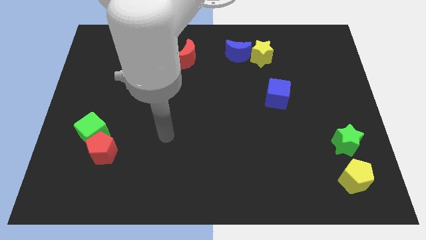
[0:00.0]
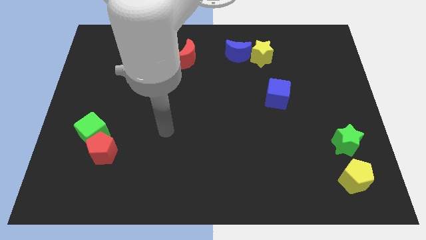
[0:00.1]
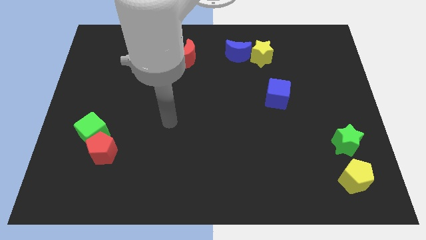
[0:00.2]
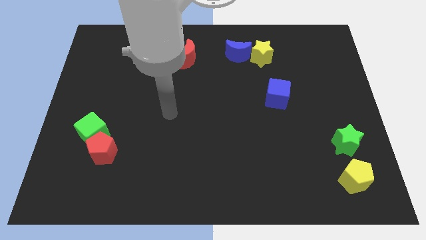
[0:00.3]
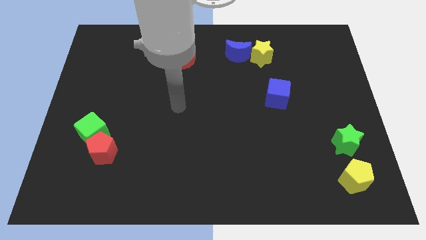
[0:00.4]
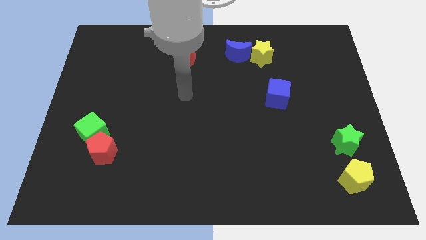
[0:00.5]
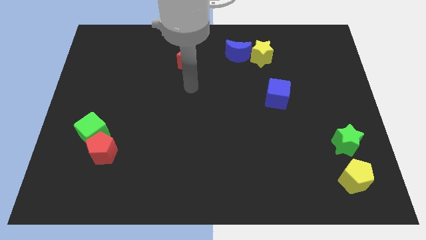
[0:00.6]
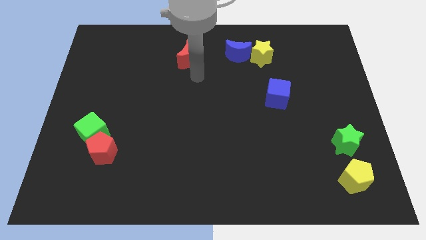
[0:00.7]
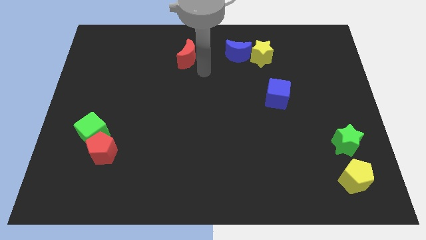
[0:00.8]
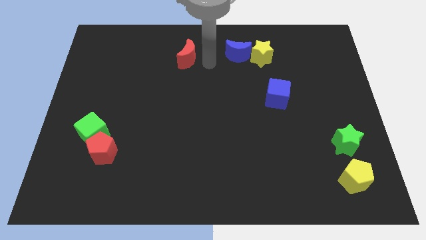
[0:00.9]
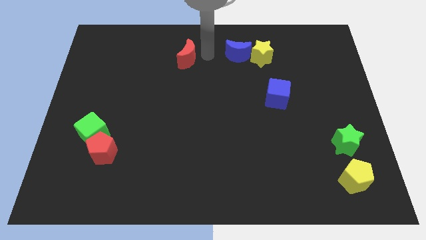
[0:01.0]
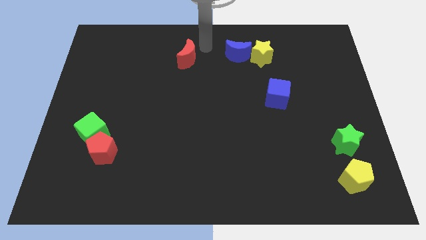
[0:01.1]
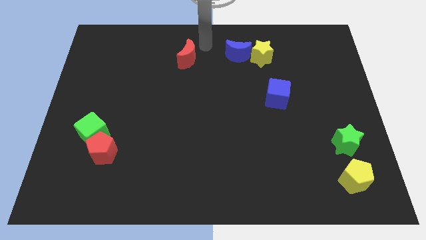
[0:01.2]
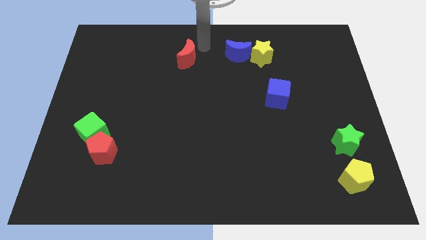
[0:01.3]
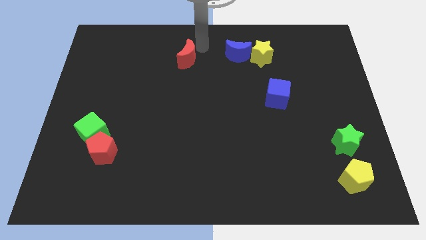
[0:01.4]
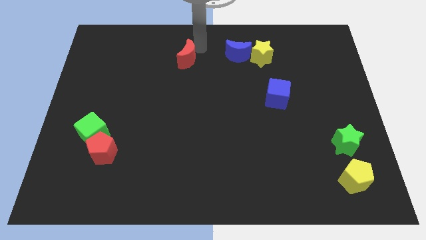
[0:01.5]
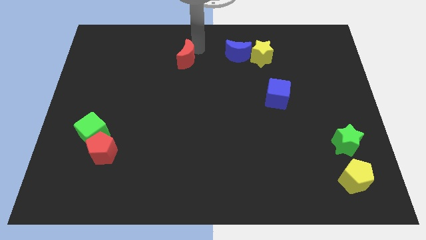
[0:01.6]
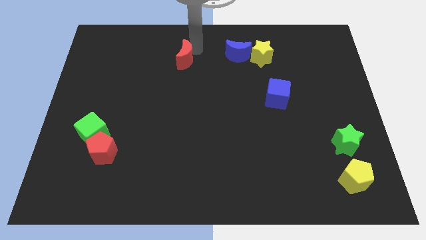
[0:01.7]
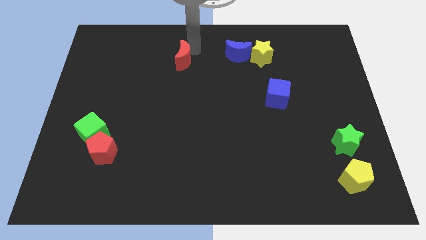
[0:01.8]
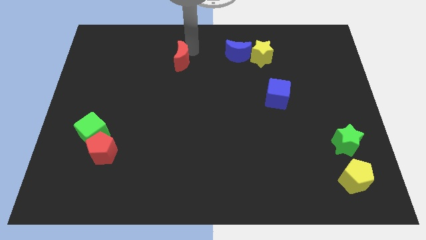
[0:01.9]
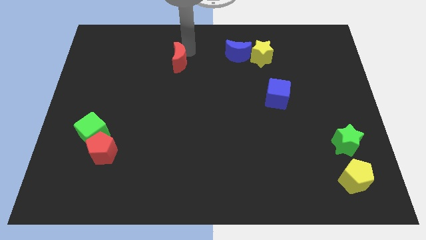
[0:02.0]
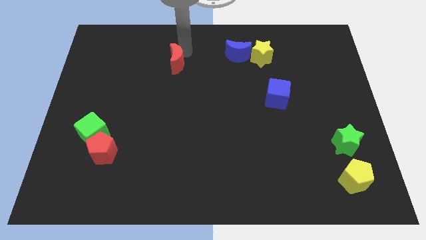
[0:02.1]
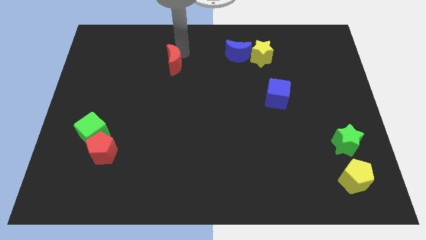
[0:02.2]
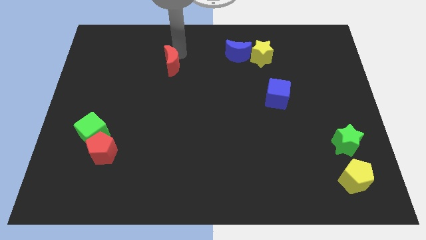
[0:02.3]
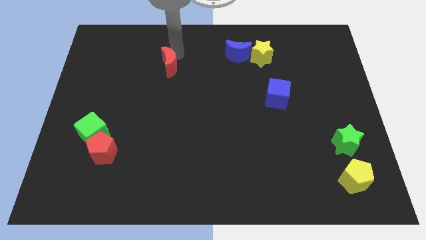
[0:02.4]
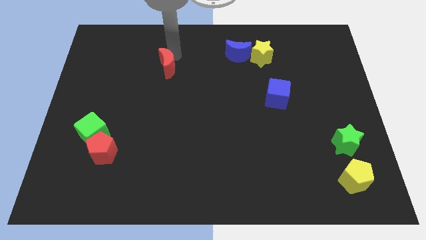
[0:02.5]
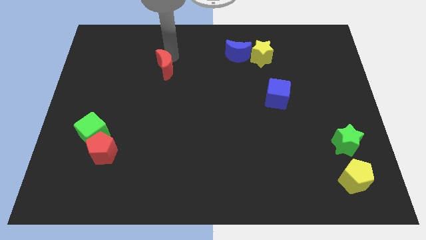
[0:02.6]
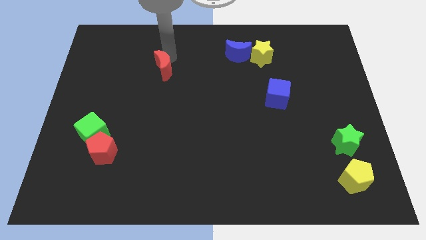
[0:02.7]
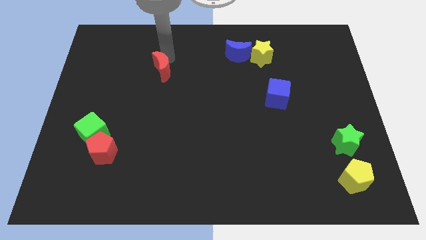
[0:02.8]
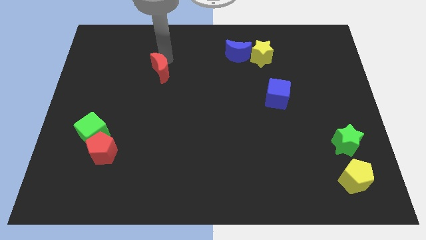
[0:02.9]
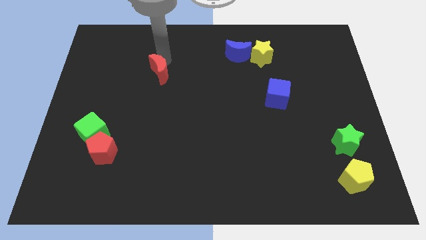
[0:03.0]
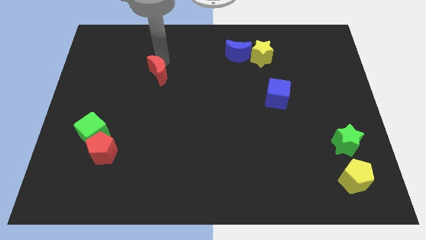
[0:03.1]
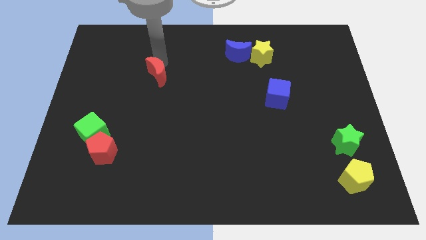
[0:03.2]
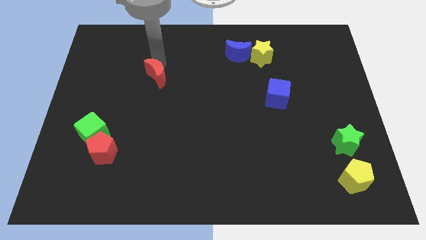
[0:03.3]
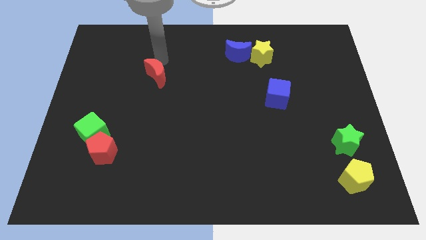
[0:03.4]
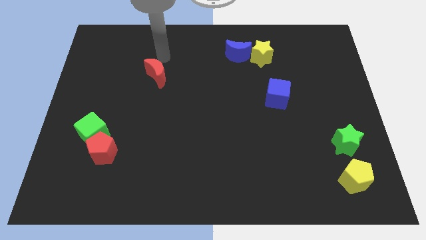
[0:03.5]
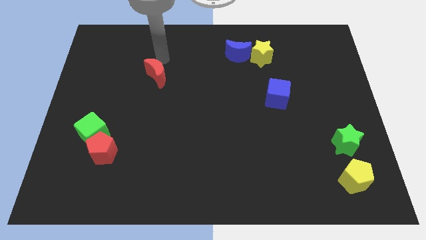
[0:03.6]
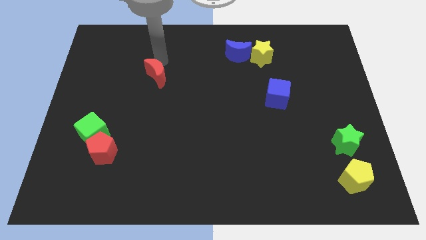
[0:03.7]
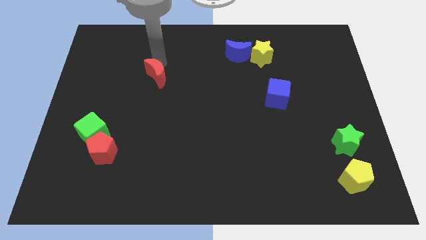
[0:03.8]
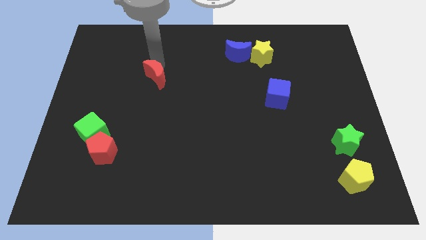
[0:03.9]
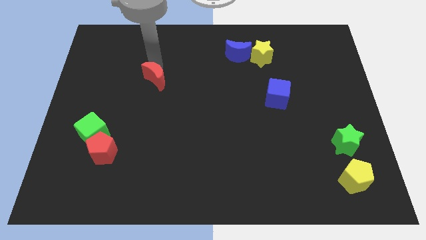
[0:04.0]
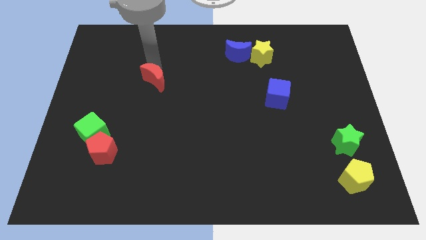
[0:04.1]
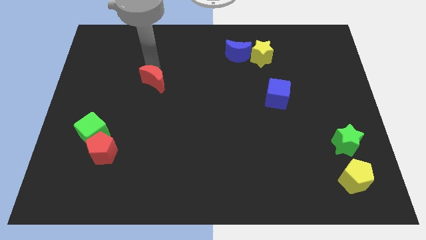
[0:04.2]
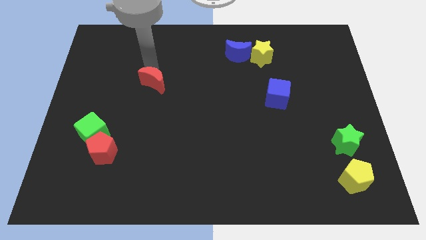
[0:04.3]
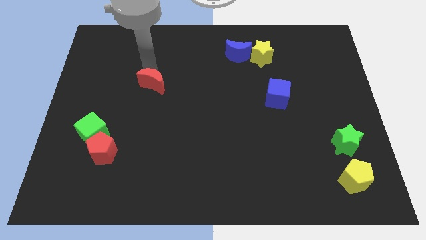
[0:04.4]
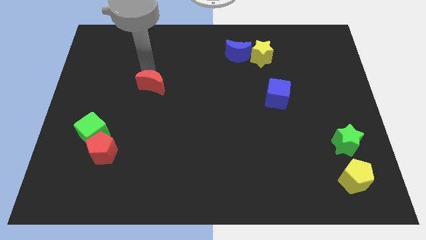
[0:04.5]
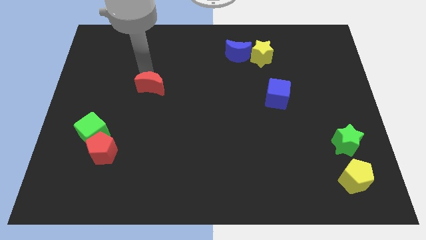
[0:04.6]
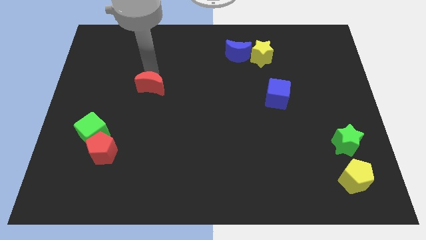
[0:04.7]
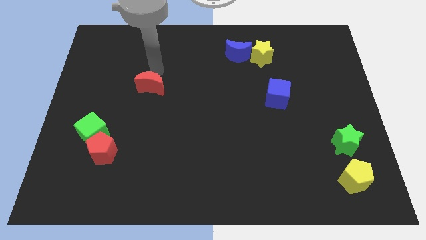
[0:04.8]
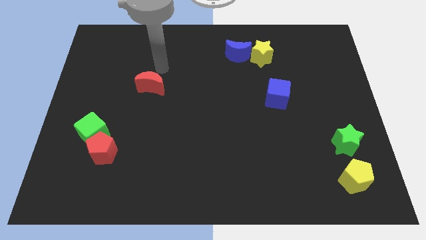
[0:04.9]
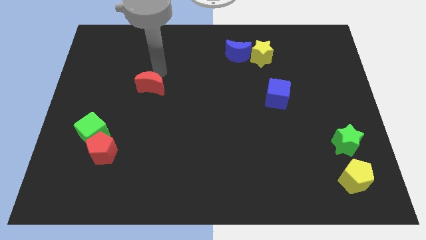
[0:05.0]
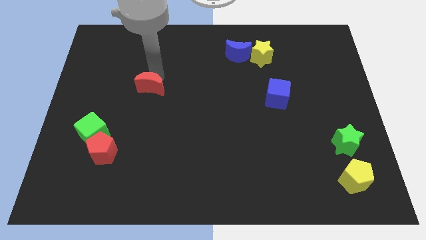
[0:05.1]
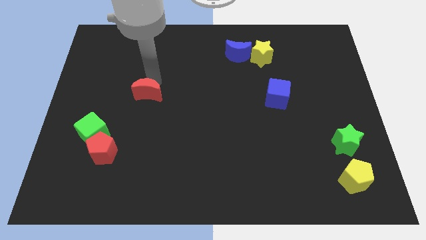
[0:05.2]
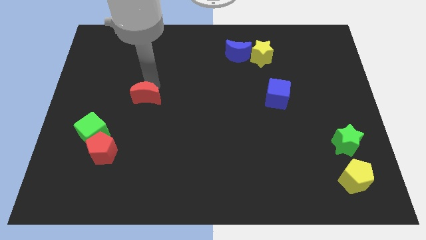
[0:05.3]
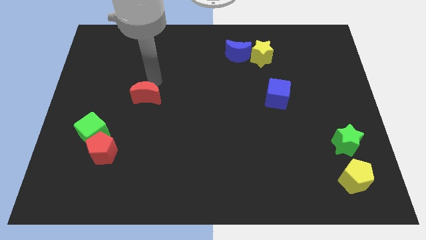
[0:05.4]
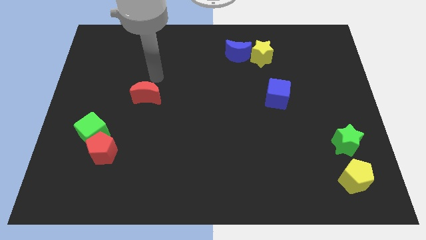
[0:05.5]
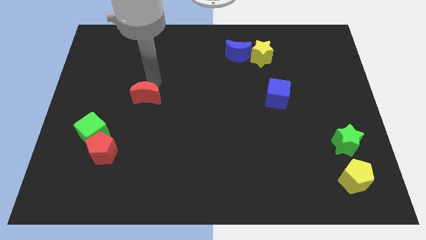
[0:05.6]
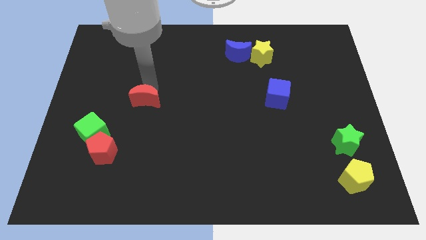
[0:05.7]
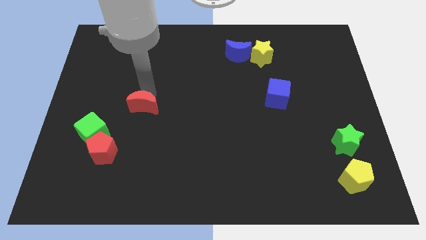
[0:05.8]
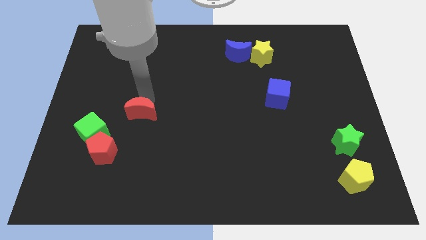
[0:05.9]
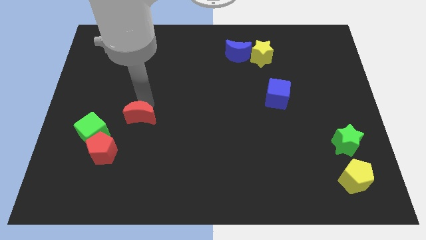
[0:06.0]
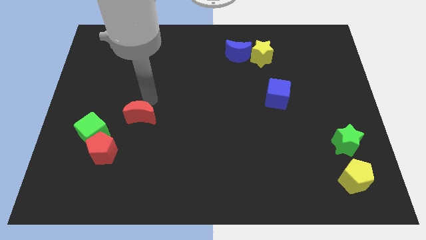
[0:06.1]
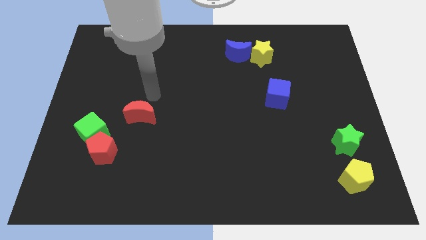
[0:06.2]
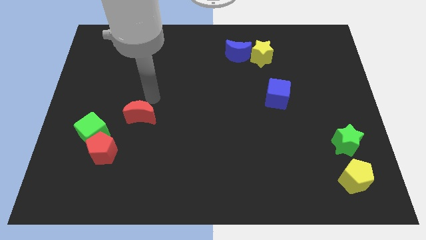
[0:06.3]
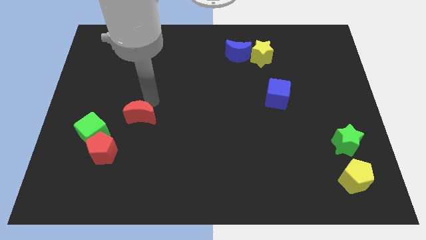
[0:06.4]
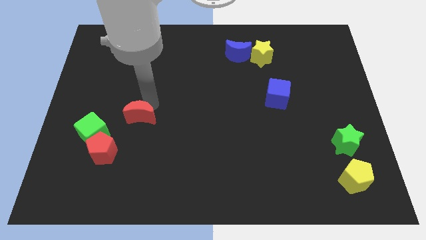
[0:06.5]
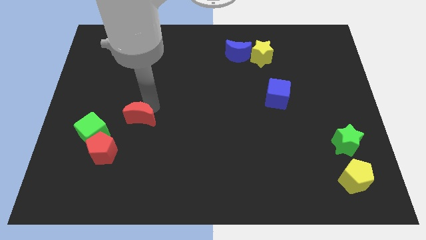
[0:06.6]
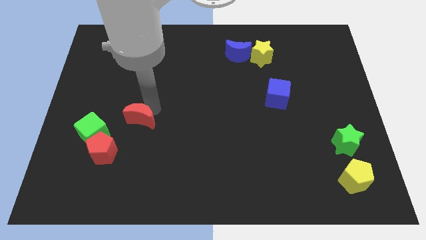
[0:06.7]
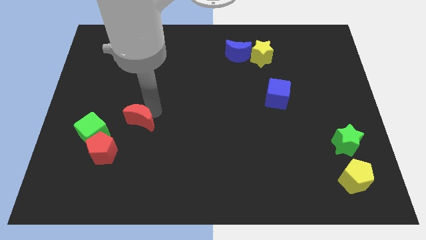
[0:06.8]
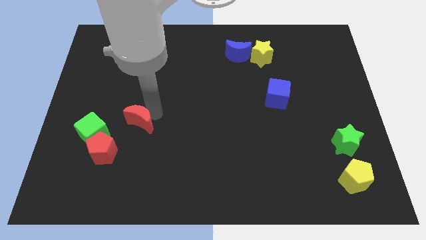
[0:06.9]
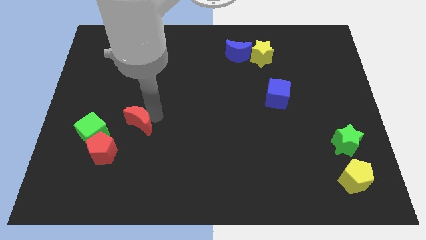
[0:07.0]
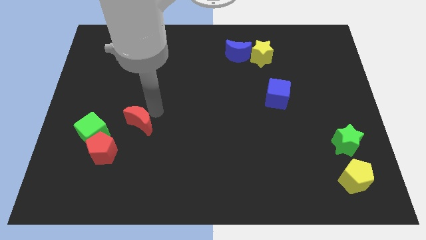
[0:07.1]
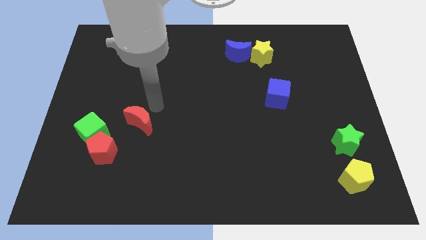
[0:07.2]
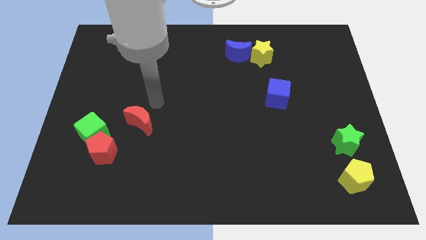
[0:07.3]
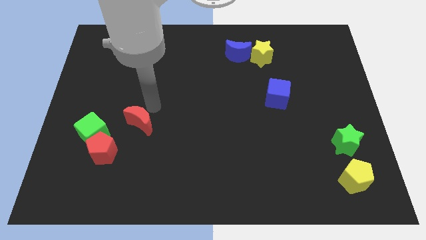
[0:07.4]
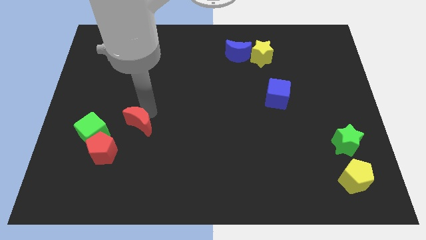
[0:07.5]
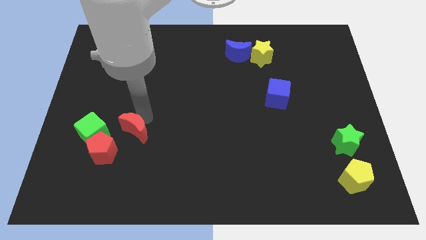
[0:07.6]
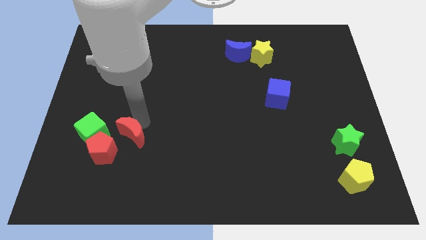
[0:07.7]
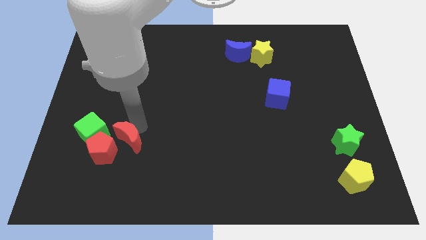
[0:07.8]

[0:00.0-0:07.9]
put the red moon to the bottom right of the green cube
